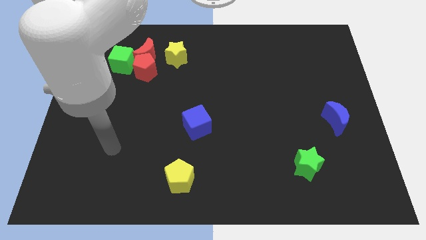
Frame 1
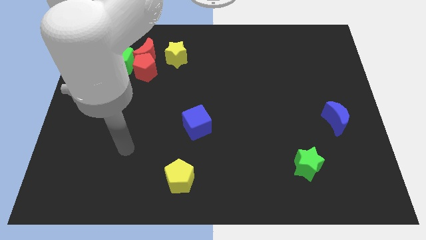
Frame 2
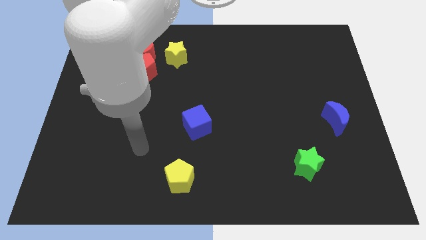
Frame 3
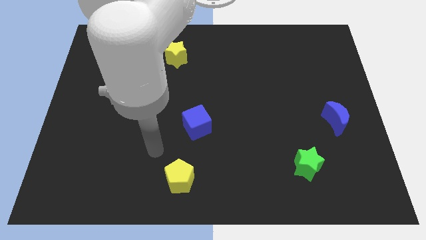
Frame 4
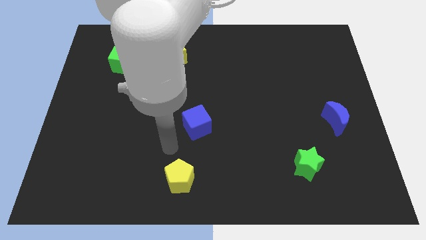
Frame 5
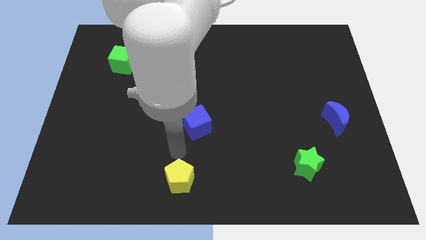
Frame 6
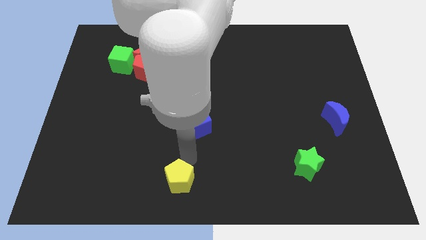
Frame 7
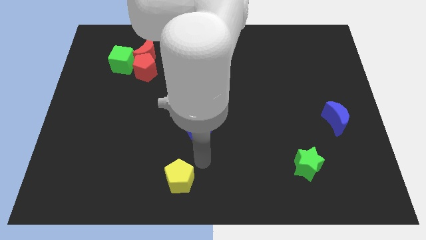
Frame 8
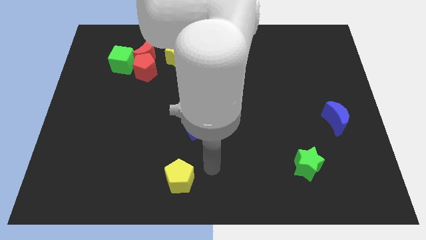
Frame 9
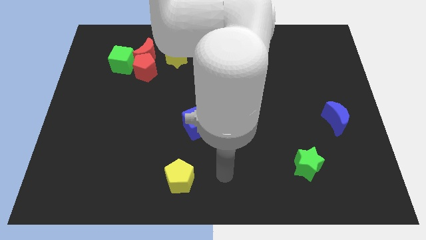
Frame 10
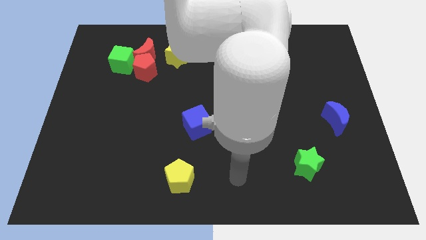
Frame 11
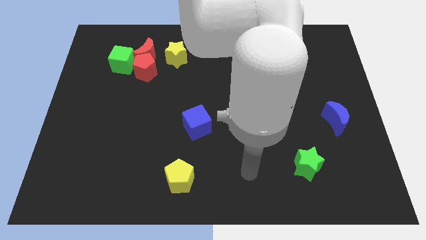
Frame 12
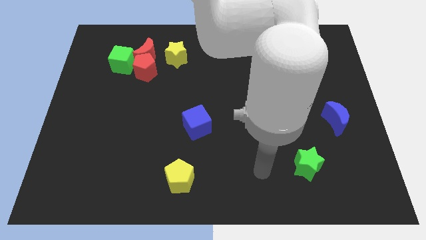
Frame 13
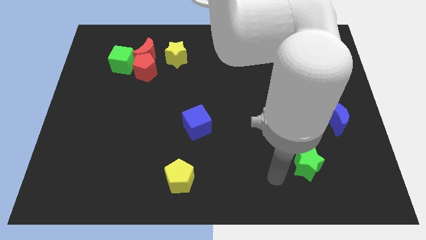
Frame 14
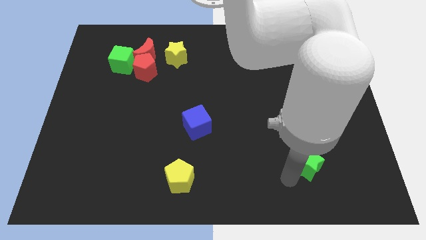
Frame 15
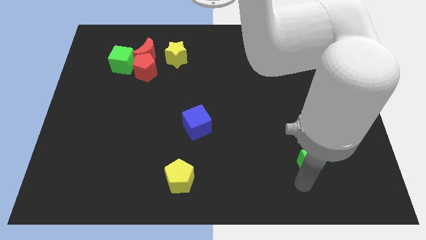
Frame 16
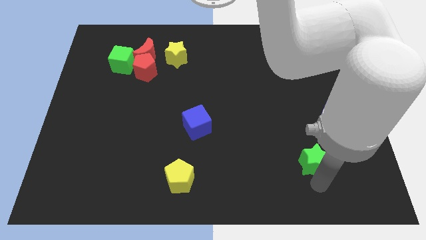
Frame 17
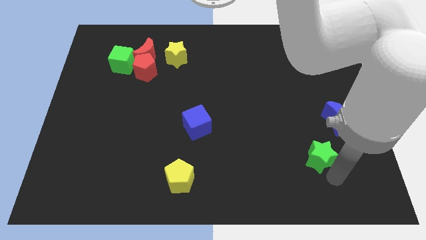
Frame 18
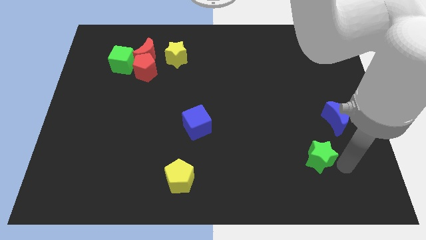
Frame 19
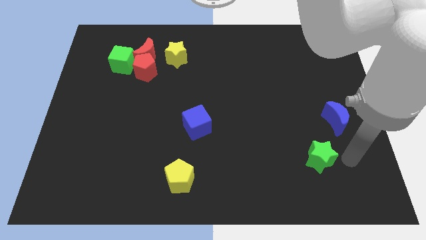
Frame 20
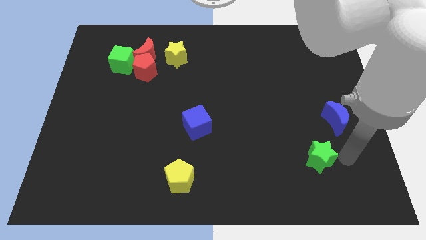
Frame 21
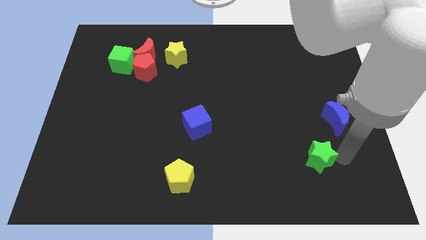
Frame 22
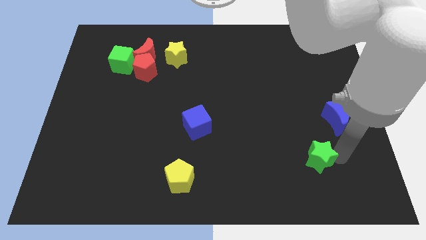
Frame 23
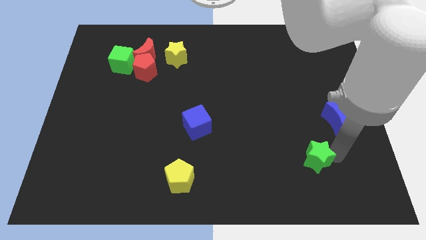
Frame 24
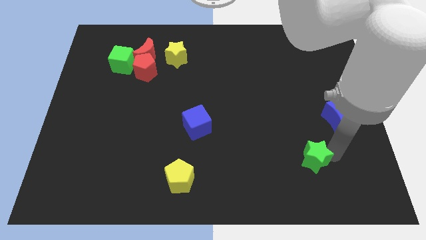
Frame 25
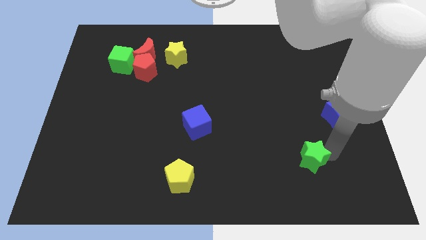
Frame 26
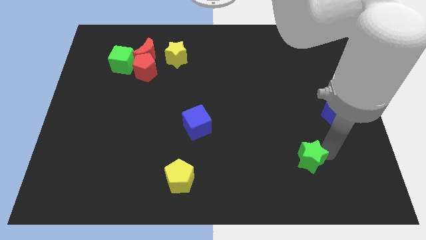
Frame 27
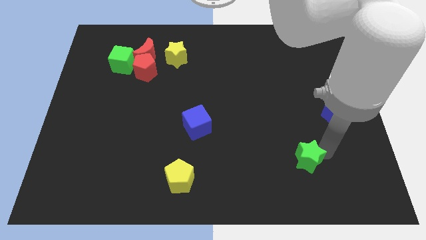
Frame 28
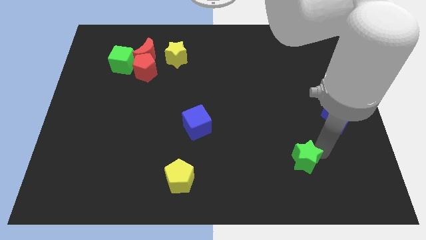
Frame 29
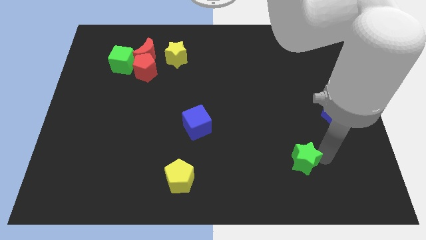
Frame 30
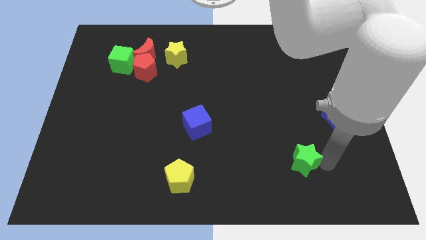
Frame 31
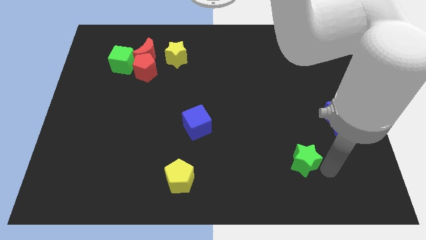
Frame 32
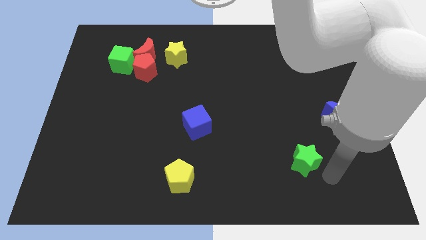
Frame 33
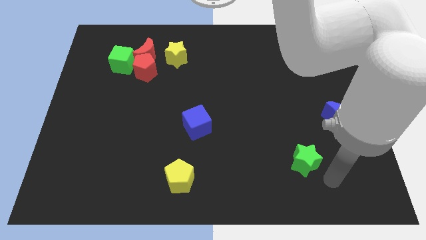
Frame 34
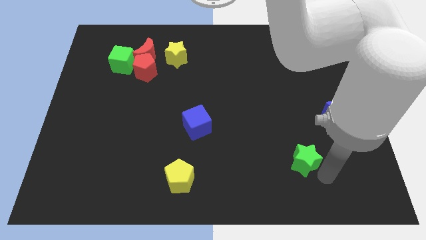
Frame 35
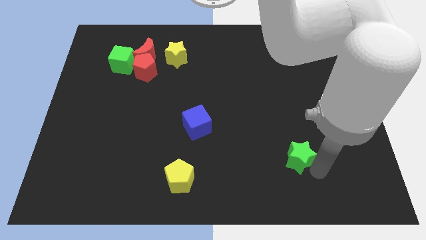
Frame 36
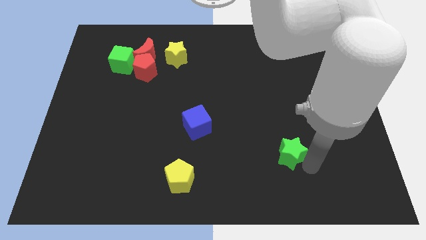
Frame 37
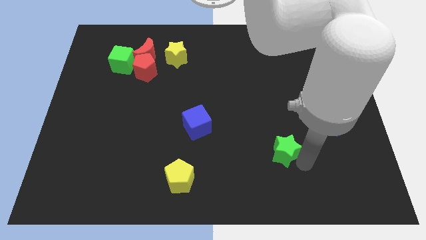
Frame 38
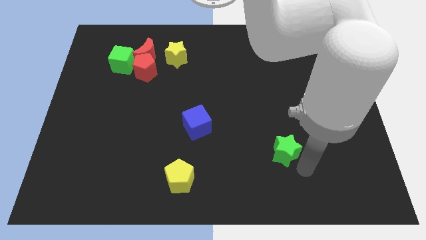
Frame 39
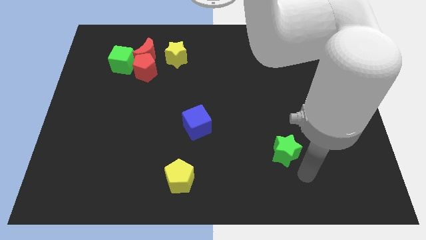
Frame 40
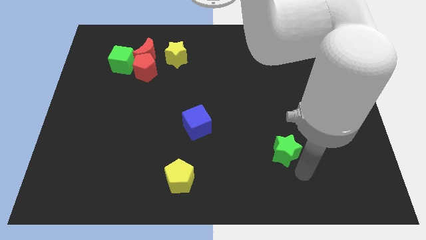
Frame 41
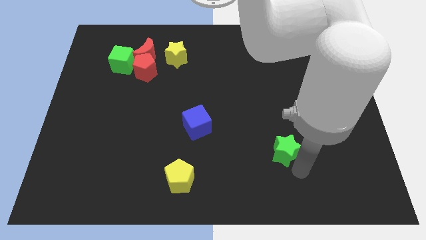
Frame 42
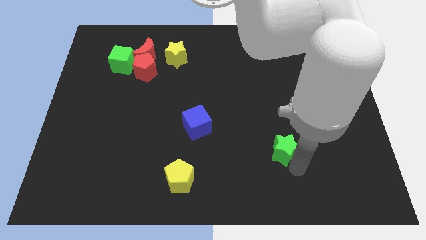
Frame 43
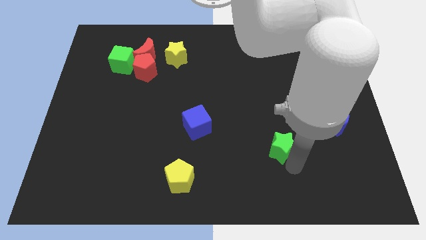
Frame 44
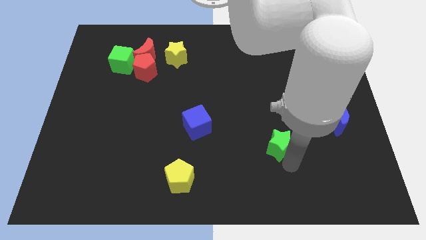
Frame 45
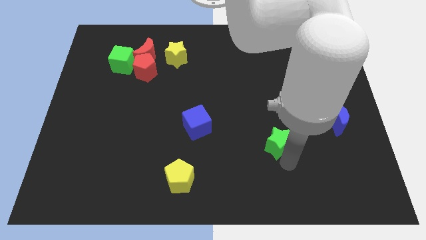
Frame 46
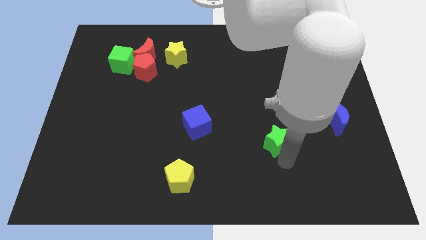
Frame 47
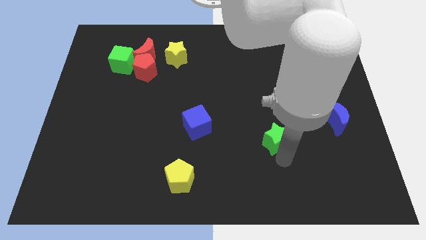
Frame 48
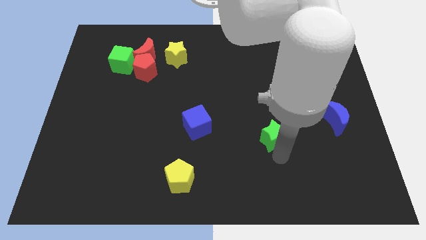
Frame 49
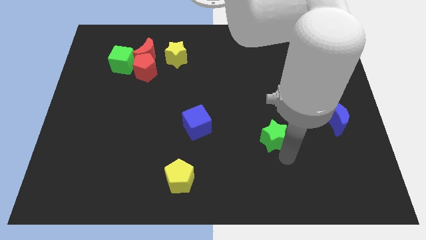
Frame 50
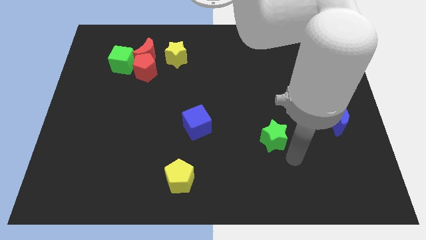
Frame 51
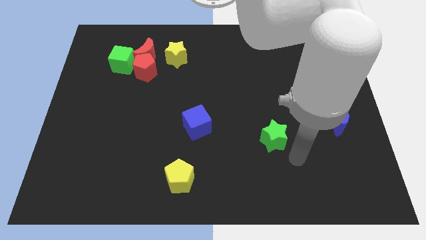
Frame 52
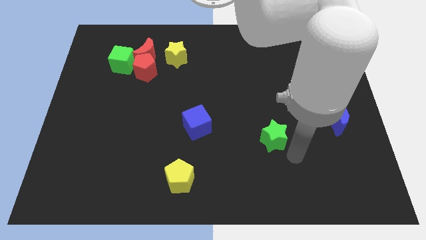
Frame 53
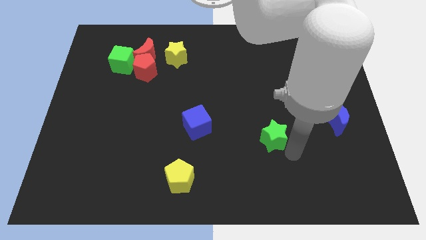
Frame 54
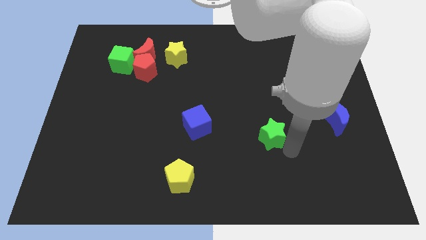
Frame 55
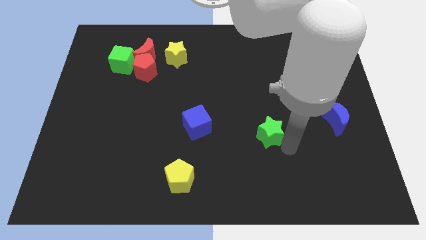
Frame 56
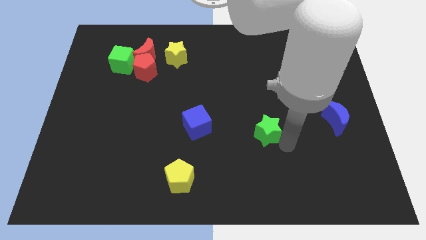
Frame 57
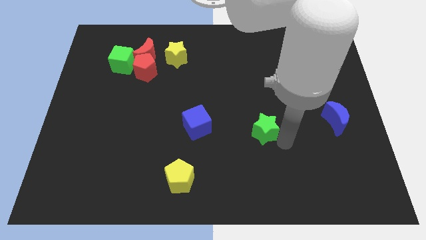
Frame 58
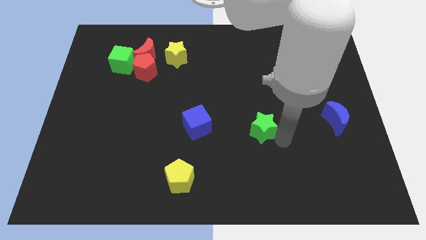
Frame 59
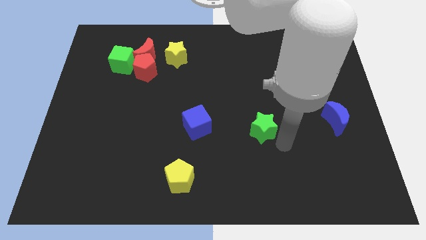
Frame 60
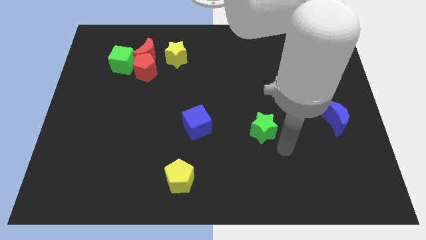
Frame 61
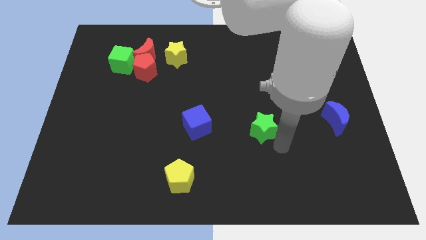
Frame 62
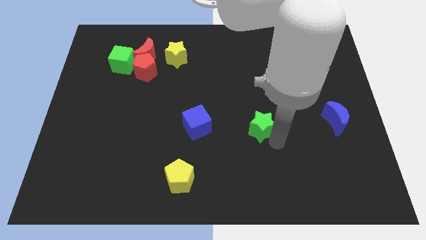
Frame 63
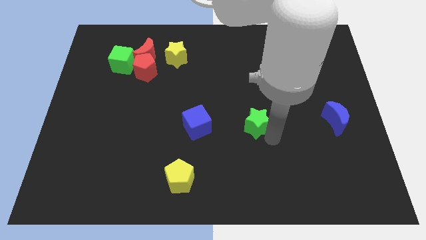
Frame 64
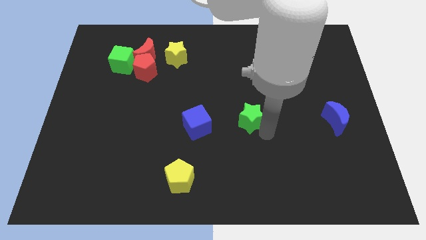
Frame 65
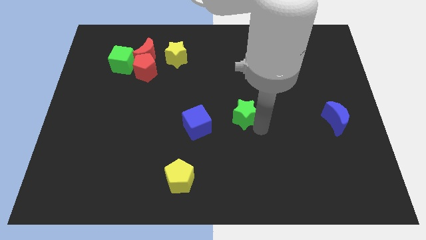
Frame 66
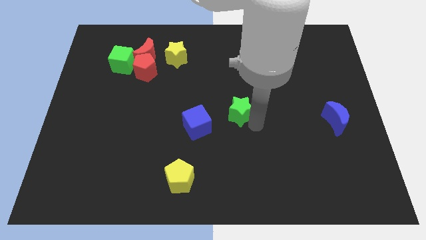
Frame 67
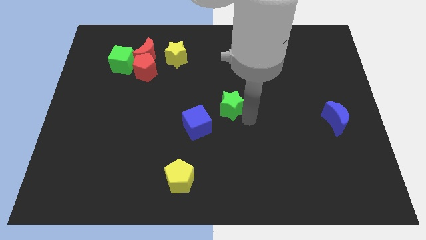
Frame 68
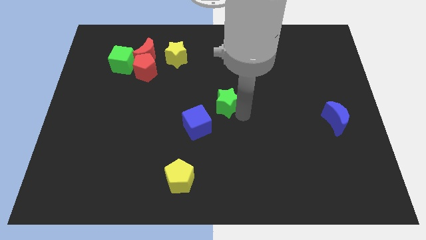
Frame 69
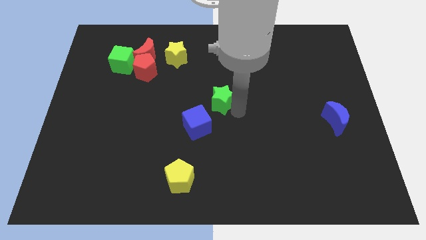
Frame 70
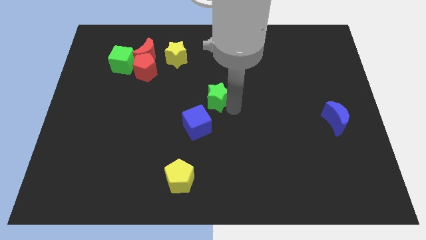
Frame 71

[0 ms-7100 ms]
push the green star above the blue cube

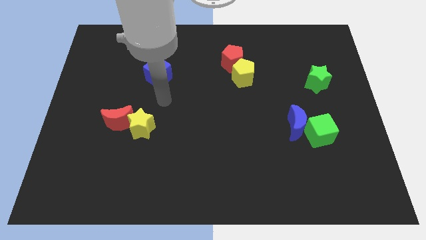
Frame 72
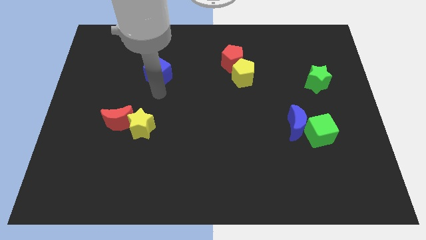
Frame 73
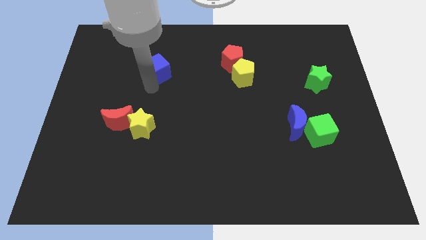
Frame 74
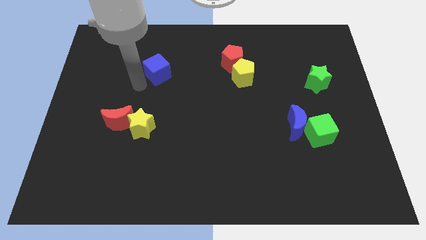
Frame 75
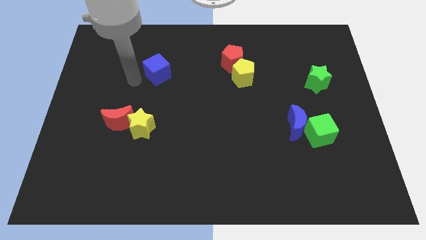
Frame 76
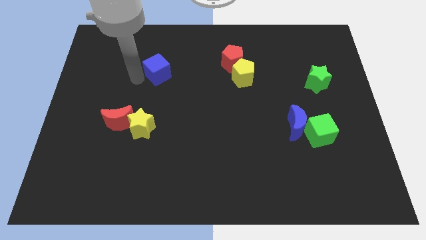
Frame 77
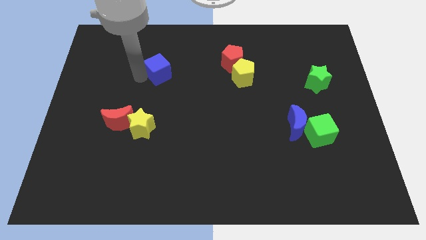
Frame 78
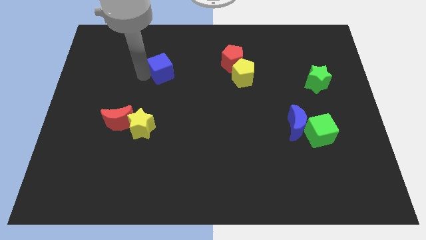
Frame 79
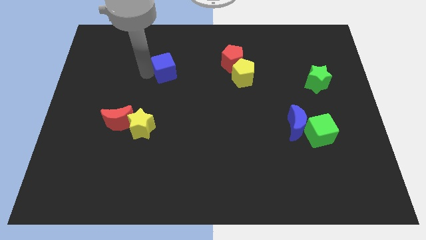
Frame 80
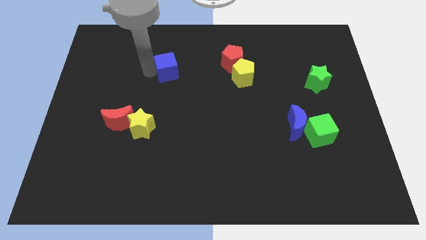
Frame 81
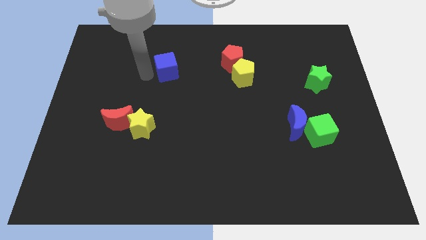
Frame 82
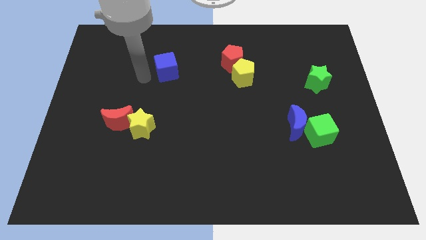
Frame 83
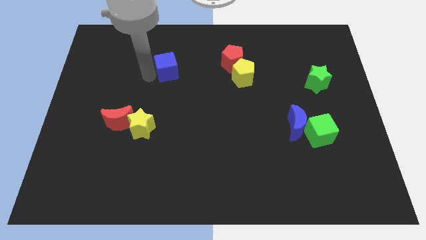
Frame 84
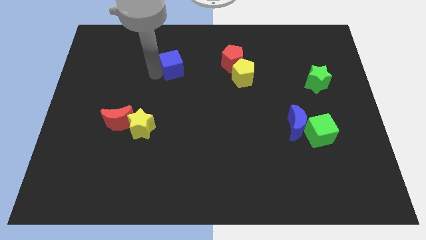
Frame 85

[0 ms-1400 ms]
move the blue cube just left of the red pentagon
